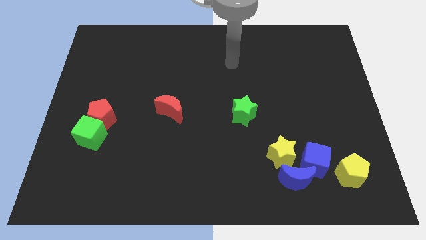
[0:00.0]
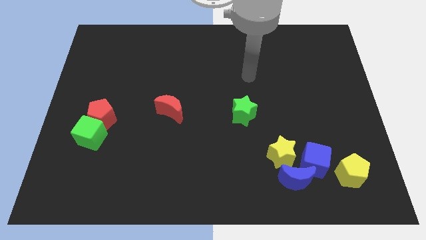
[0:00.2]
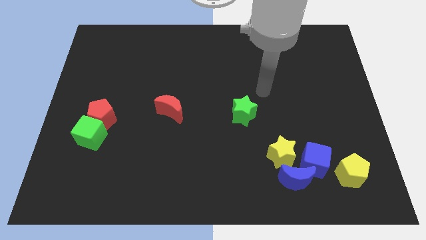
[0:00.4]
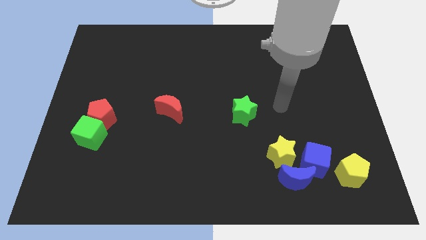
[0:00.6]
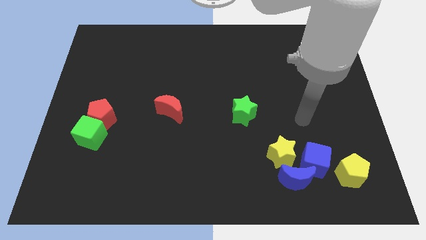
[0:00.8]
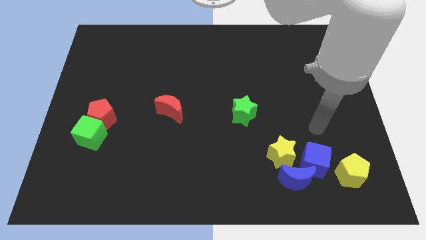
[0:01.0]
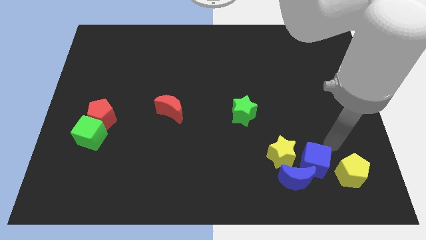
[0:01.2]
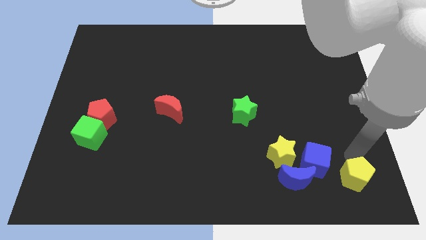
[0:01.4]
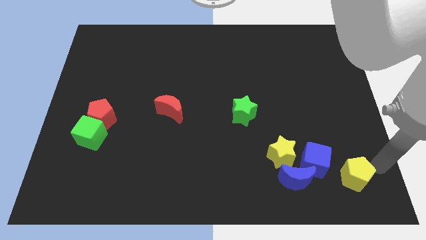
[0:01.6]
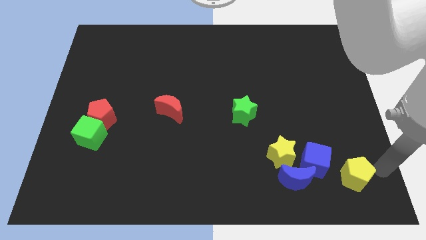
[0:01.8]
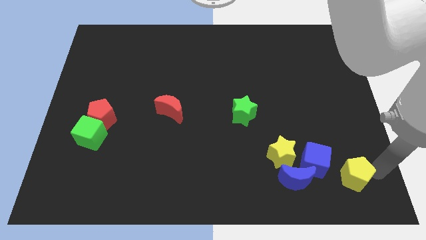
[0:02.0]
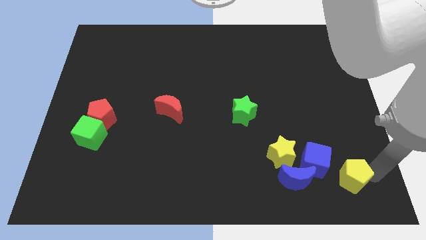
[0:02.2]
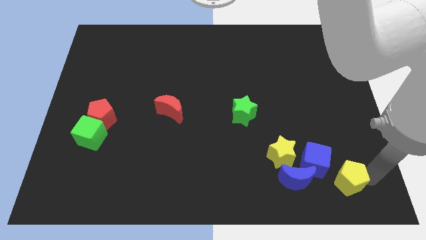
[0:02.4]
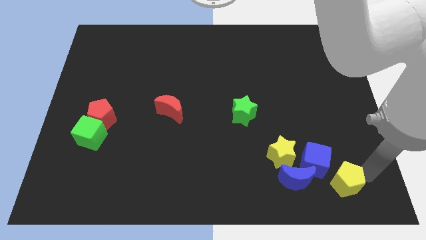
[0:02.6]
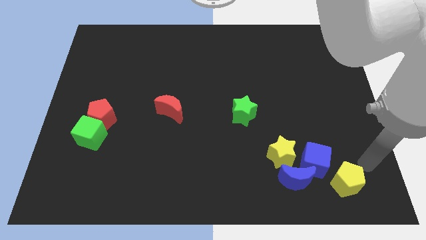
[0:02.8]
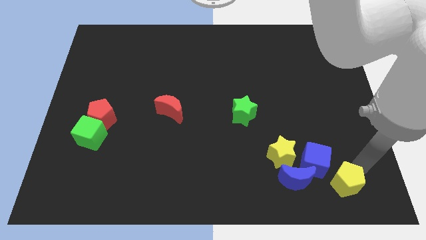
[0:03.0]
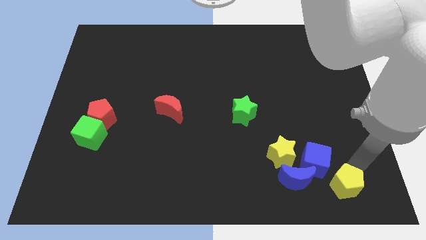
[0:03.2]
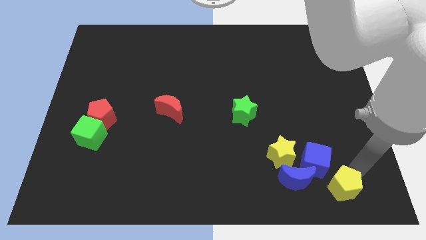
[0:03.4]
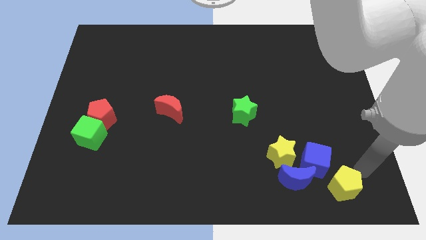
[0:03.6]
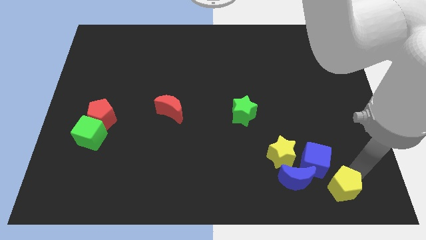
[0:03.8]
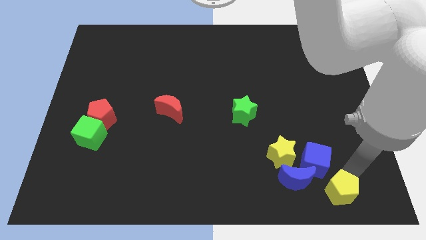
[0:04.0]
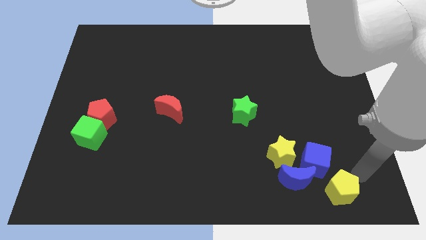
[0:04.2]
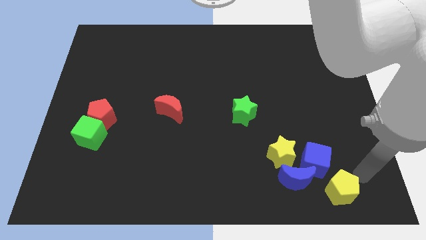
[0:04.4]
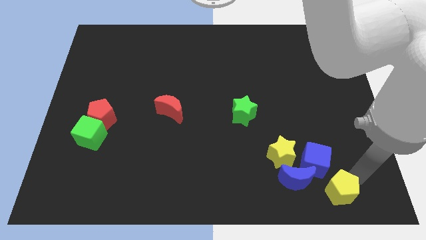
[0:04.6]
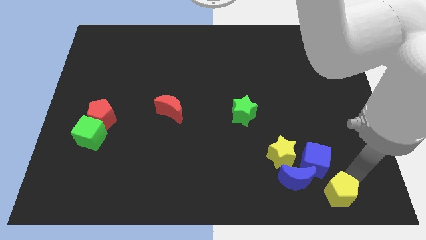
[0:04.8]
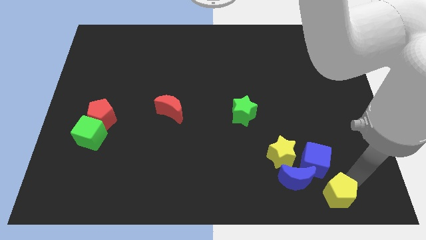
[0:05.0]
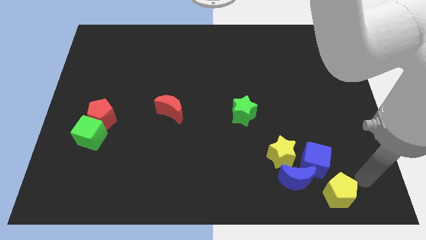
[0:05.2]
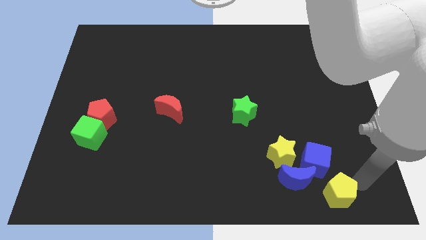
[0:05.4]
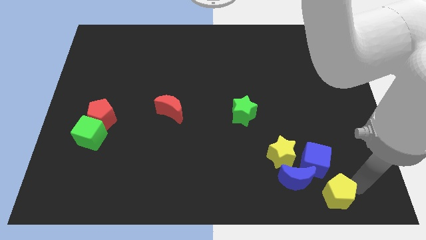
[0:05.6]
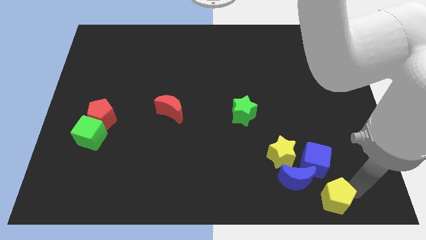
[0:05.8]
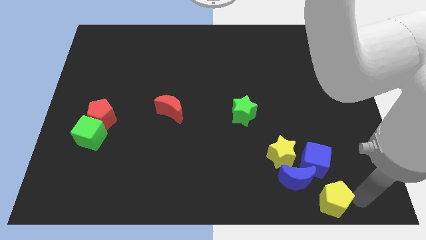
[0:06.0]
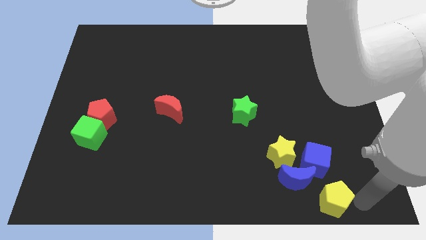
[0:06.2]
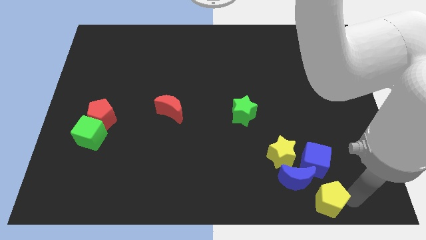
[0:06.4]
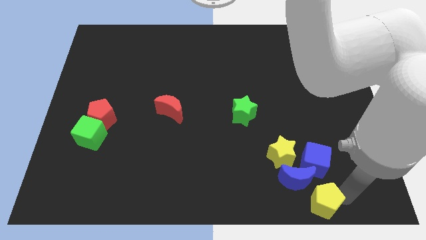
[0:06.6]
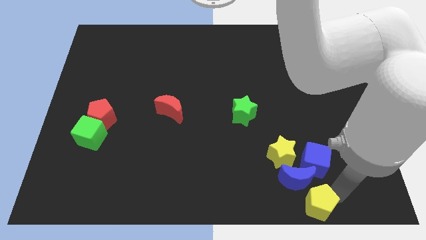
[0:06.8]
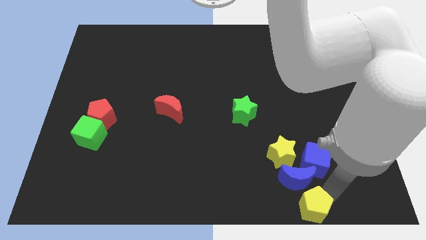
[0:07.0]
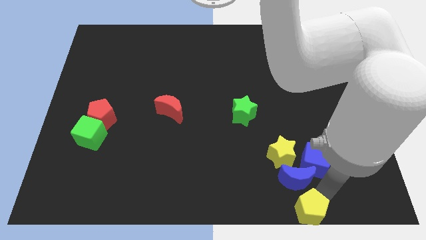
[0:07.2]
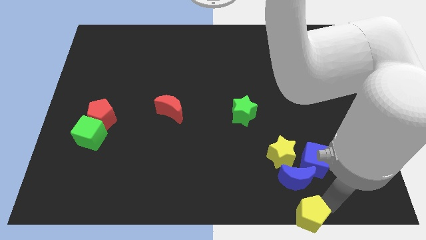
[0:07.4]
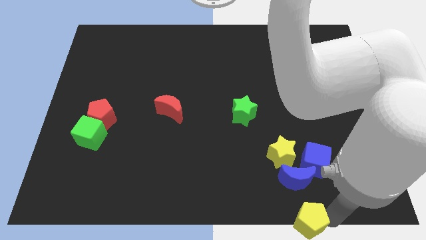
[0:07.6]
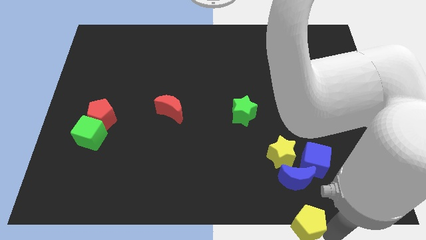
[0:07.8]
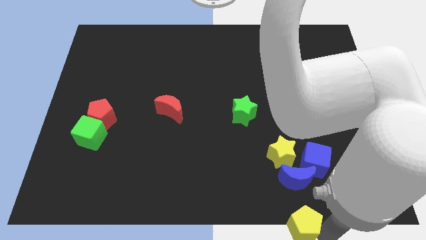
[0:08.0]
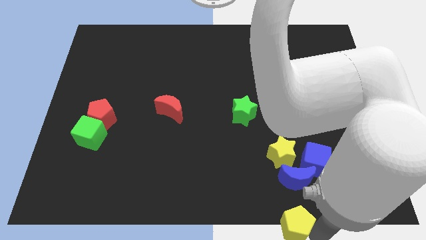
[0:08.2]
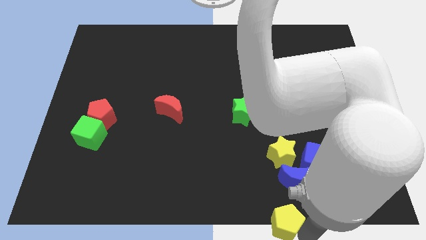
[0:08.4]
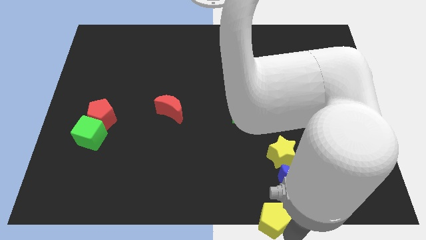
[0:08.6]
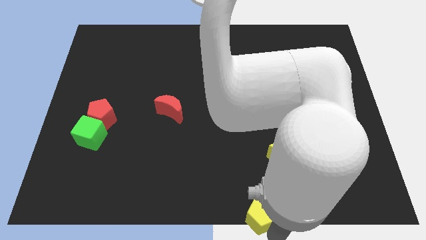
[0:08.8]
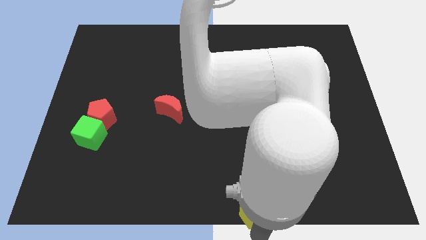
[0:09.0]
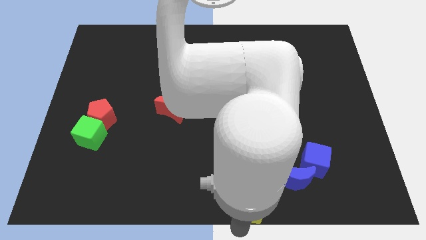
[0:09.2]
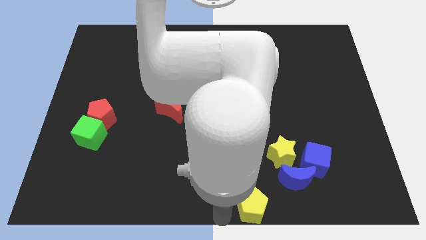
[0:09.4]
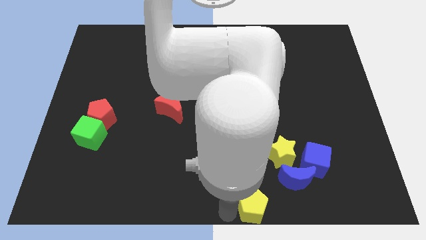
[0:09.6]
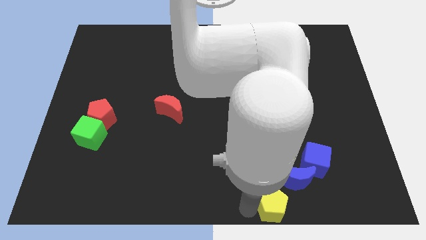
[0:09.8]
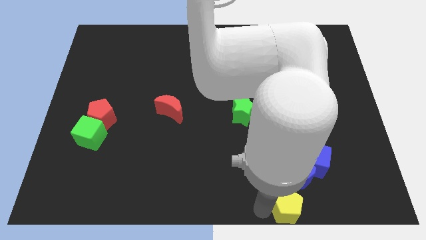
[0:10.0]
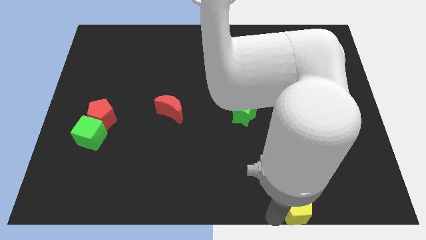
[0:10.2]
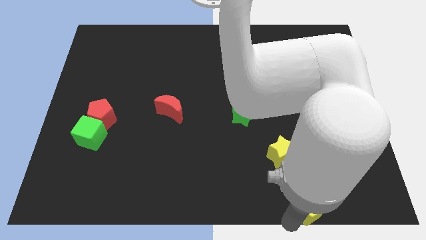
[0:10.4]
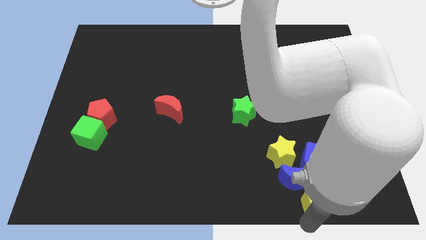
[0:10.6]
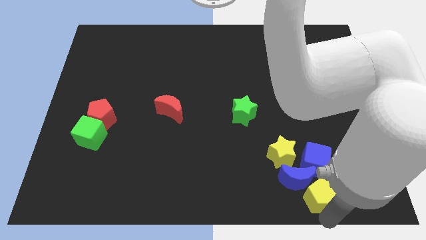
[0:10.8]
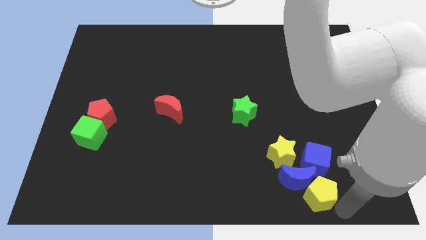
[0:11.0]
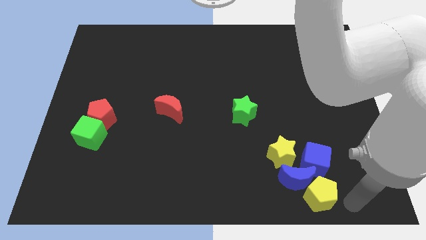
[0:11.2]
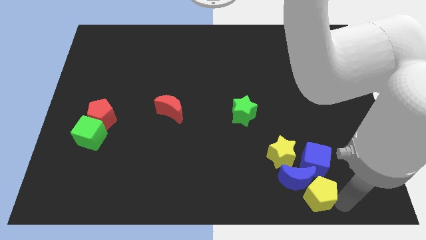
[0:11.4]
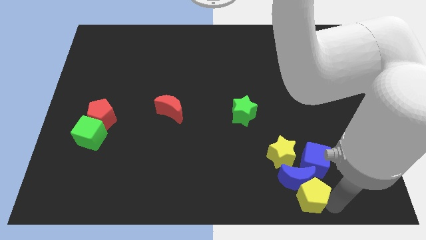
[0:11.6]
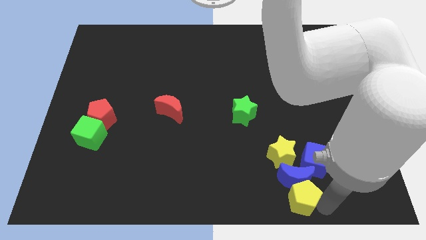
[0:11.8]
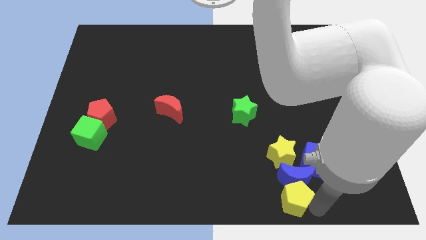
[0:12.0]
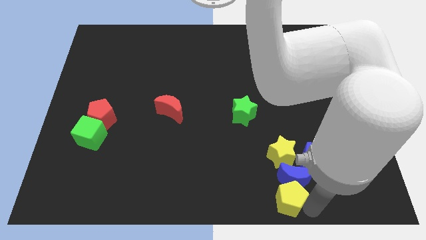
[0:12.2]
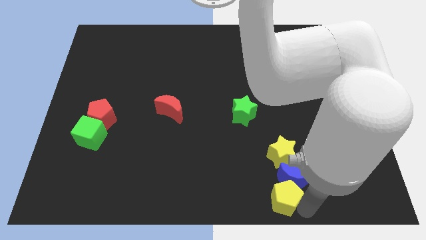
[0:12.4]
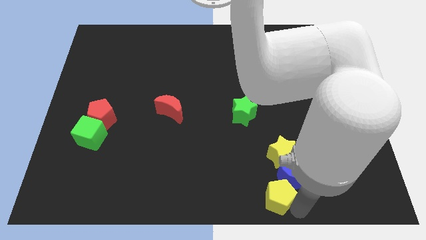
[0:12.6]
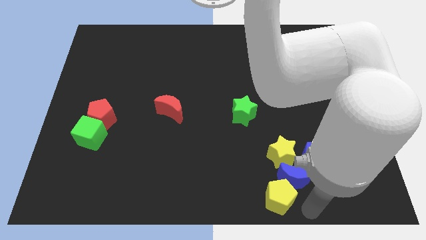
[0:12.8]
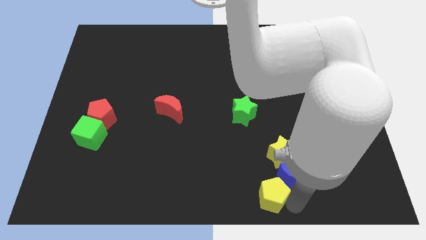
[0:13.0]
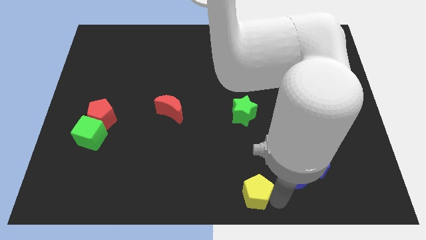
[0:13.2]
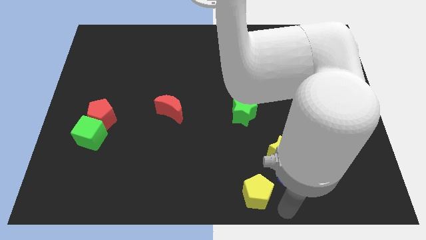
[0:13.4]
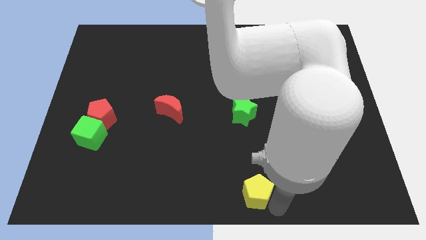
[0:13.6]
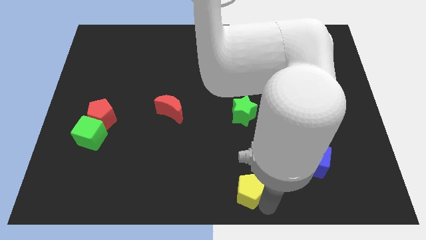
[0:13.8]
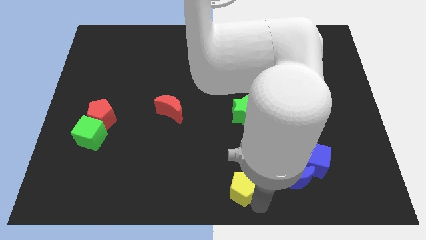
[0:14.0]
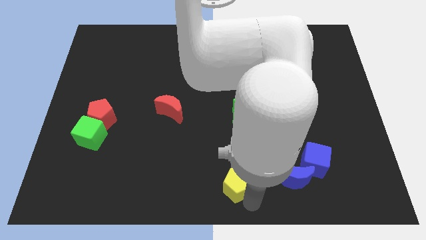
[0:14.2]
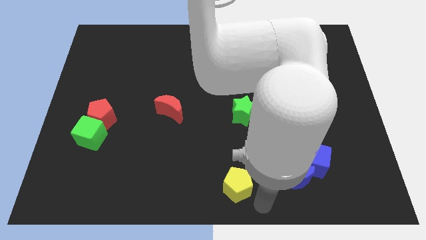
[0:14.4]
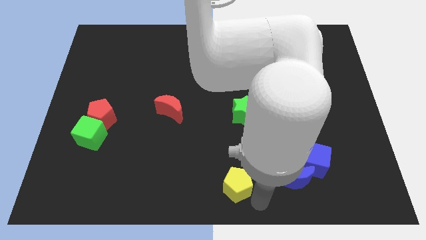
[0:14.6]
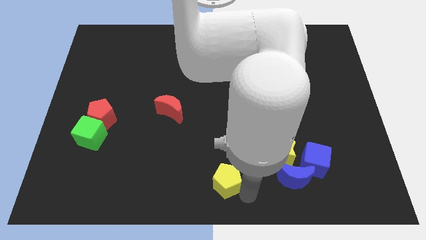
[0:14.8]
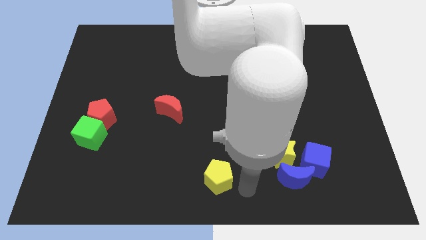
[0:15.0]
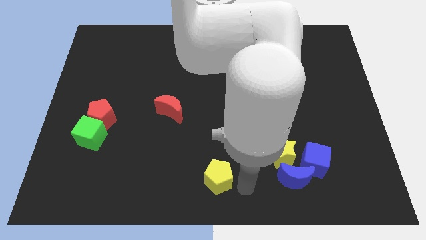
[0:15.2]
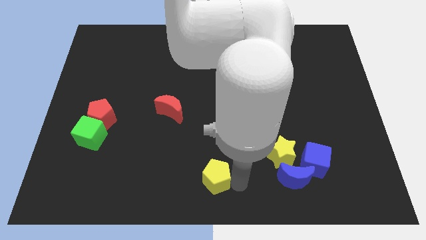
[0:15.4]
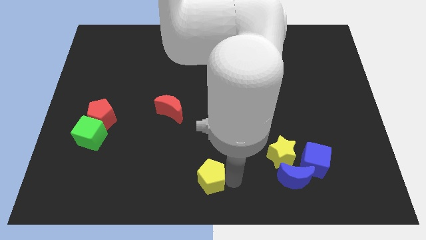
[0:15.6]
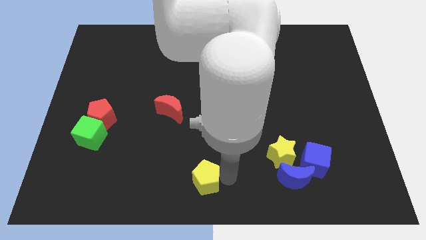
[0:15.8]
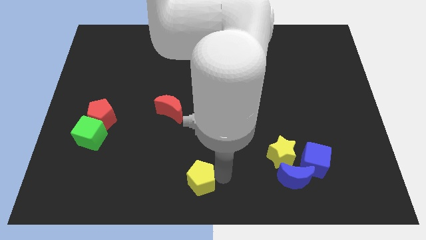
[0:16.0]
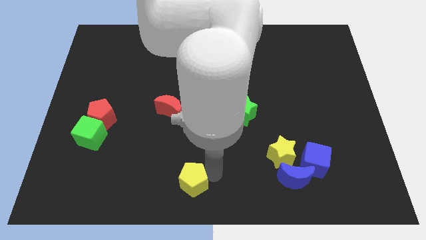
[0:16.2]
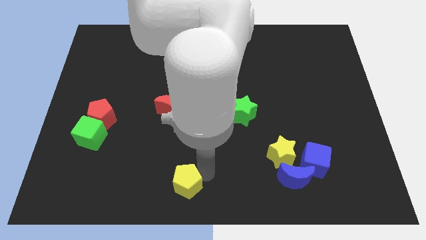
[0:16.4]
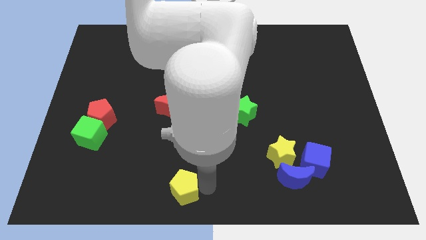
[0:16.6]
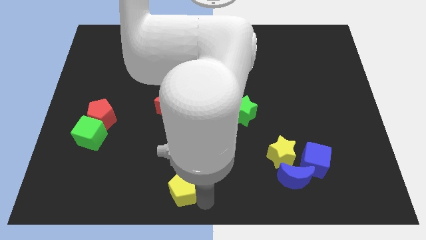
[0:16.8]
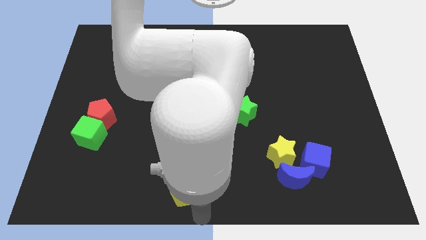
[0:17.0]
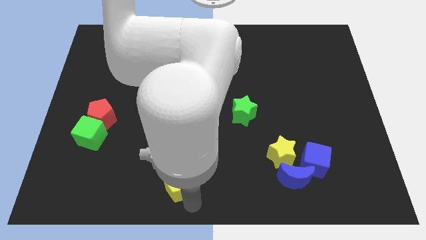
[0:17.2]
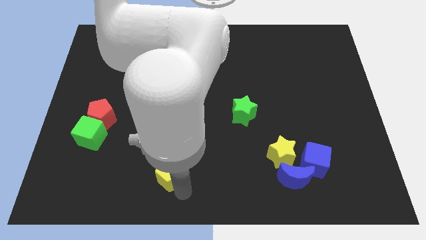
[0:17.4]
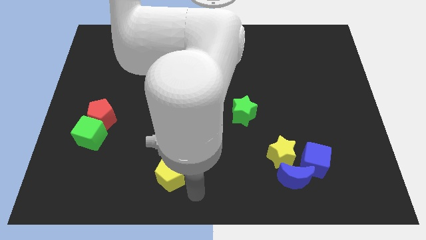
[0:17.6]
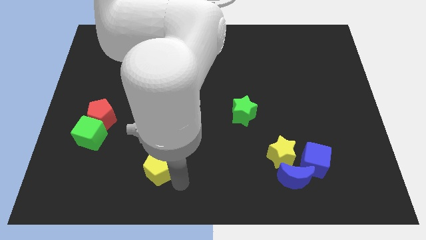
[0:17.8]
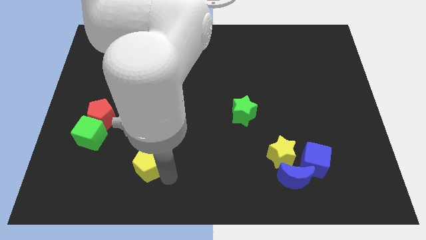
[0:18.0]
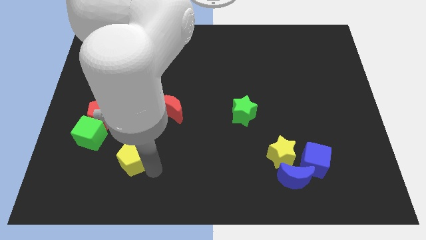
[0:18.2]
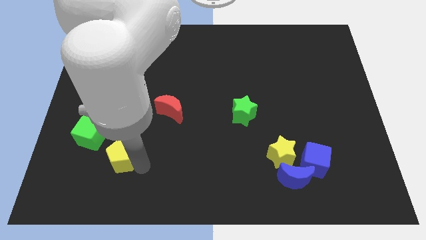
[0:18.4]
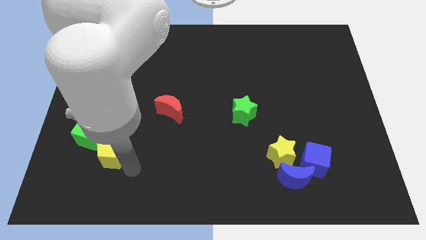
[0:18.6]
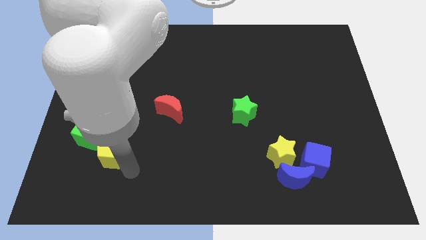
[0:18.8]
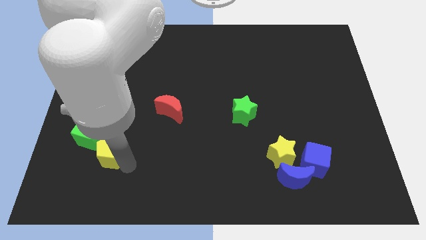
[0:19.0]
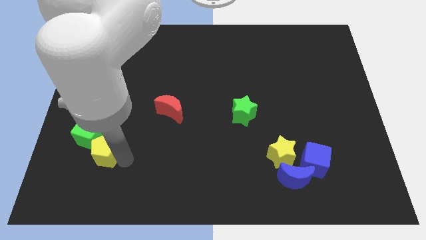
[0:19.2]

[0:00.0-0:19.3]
move the yellow pentagon to the green cube
